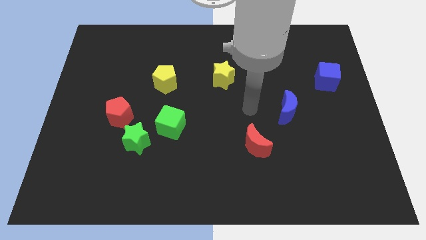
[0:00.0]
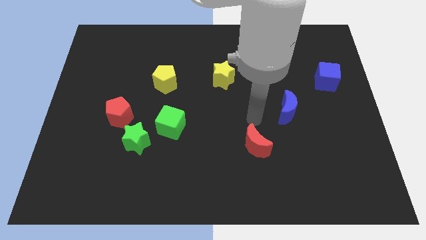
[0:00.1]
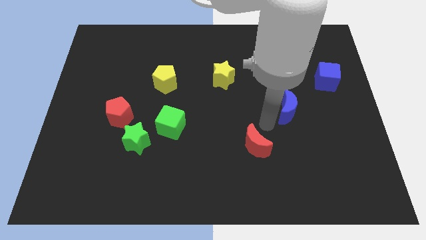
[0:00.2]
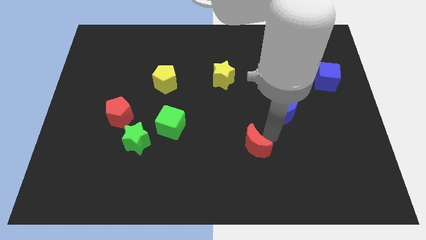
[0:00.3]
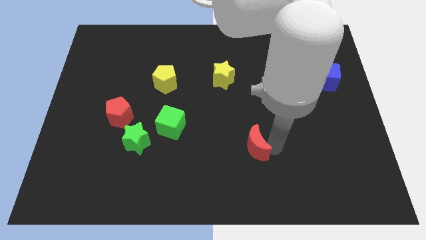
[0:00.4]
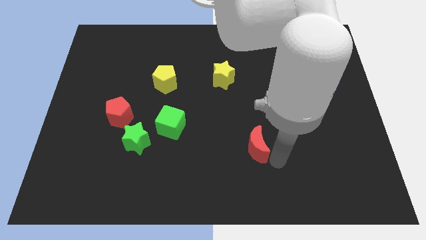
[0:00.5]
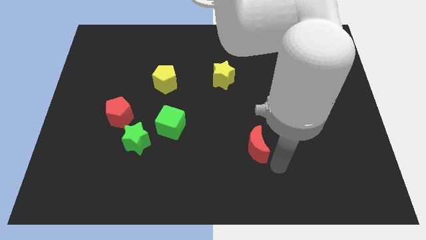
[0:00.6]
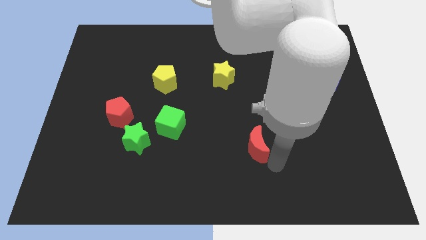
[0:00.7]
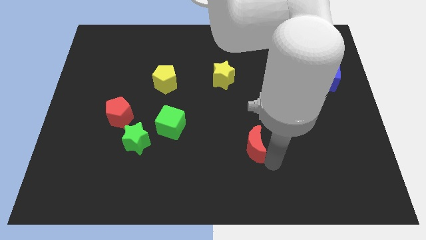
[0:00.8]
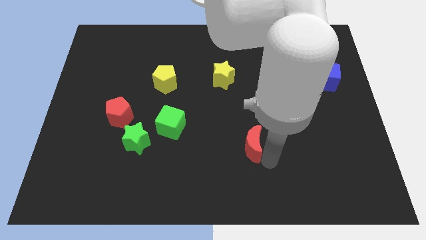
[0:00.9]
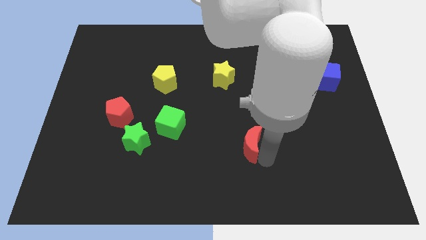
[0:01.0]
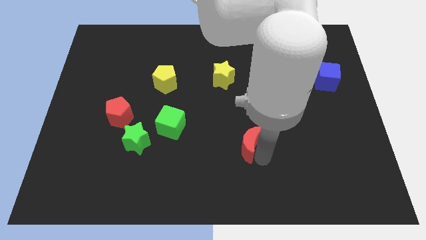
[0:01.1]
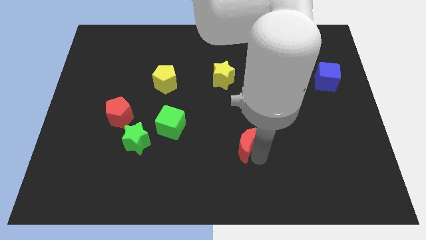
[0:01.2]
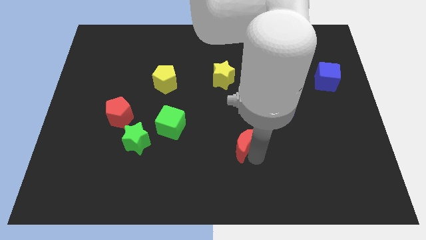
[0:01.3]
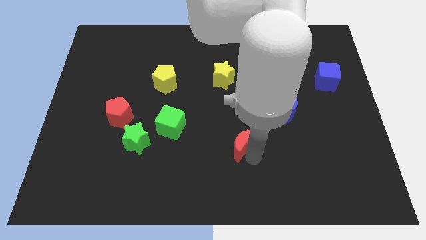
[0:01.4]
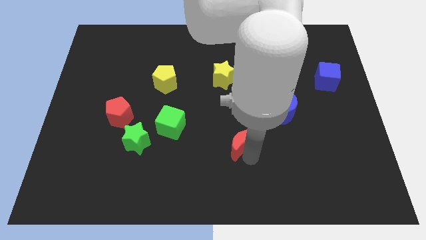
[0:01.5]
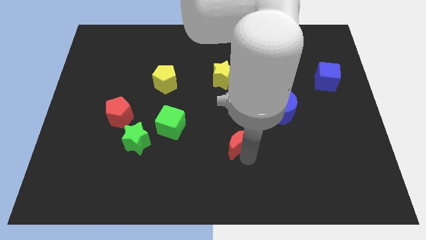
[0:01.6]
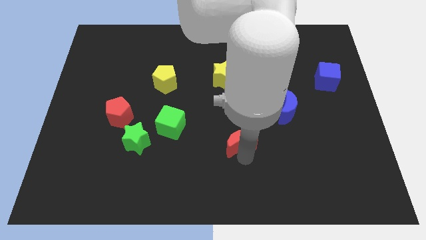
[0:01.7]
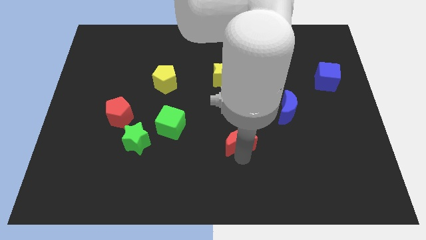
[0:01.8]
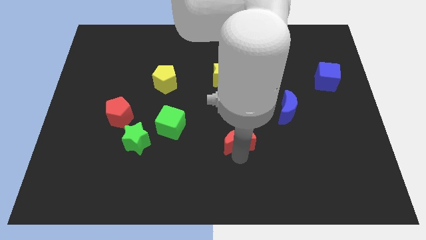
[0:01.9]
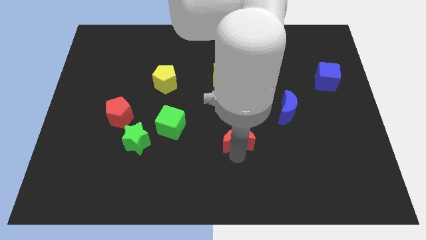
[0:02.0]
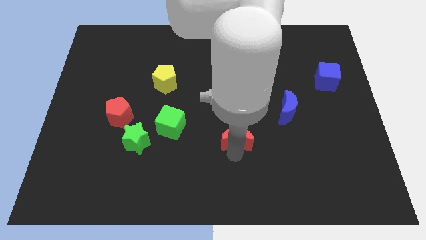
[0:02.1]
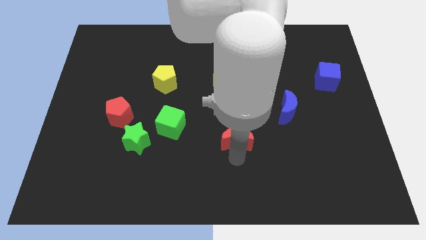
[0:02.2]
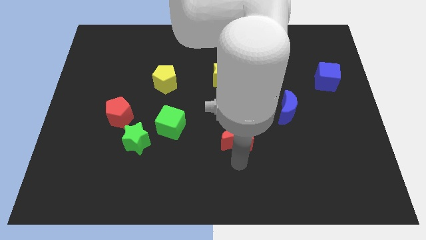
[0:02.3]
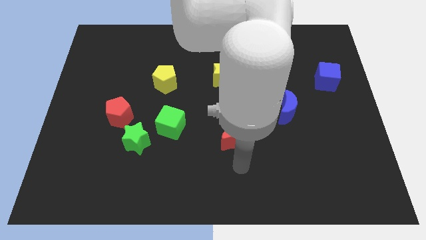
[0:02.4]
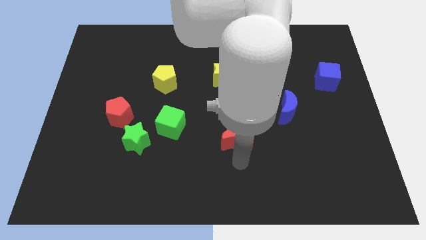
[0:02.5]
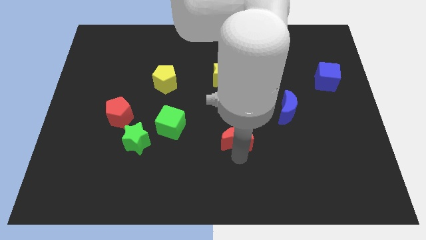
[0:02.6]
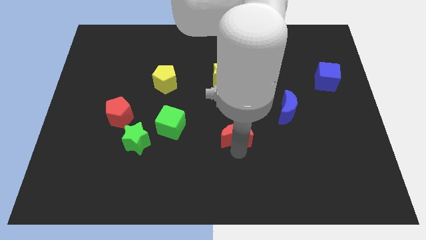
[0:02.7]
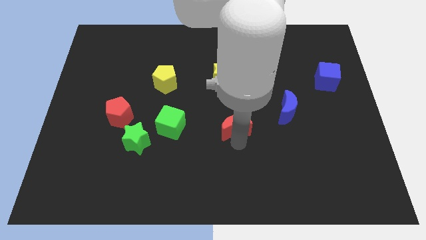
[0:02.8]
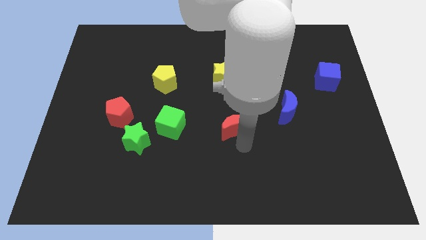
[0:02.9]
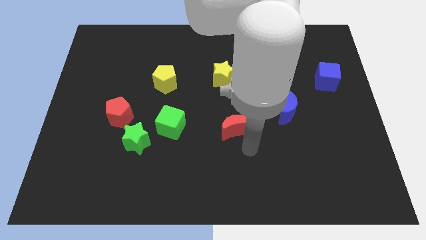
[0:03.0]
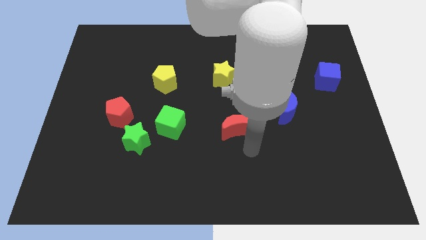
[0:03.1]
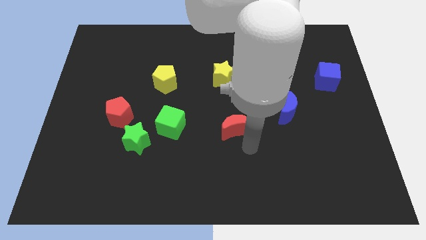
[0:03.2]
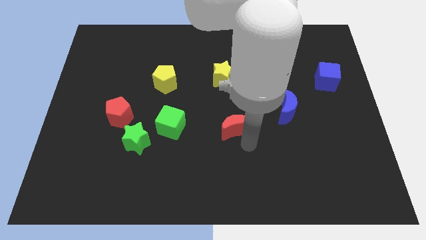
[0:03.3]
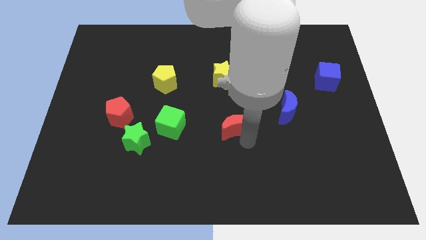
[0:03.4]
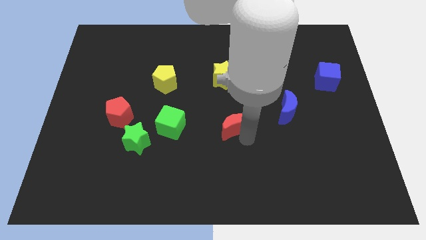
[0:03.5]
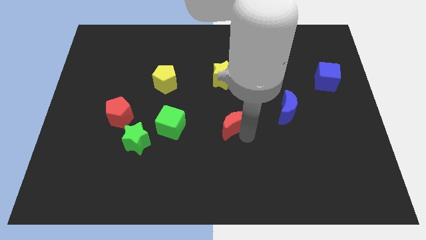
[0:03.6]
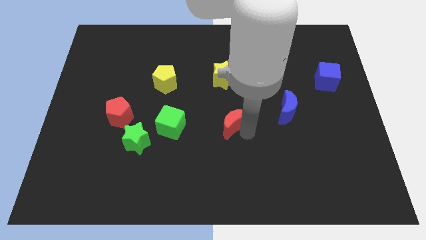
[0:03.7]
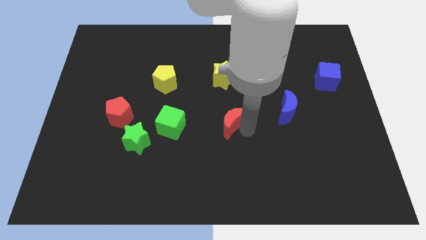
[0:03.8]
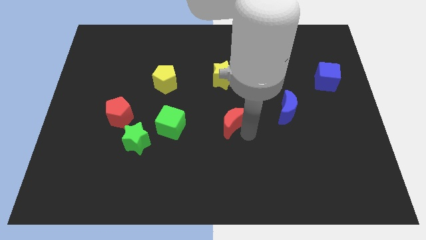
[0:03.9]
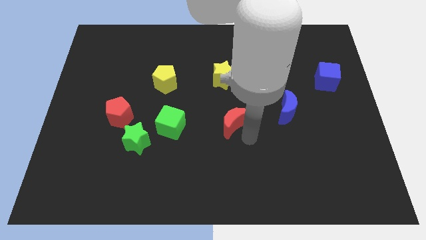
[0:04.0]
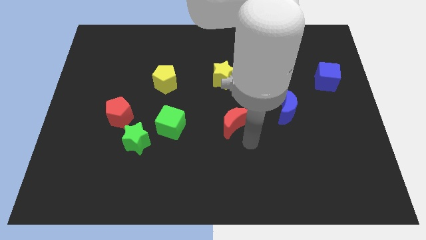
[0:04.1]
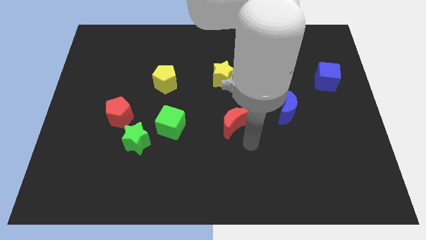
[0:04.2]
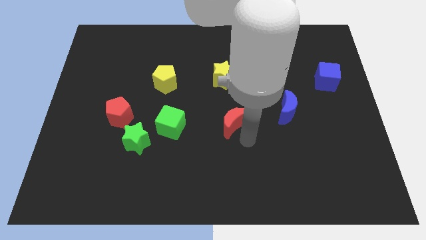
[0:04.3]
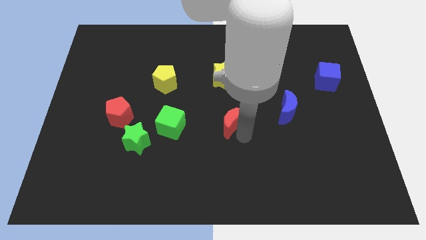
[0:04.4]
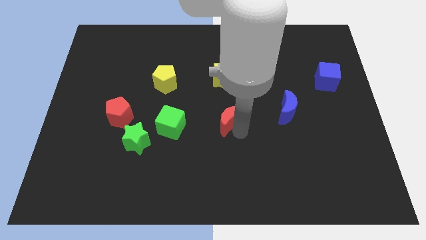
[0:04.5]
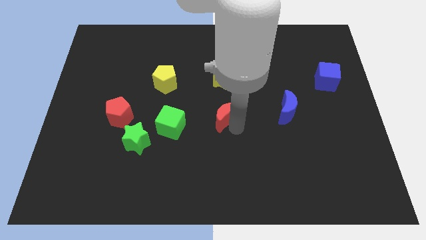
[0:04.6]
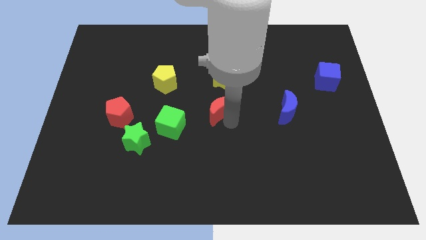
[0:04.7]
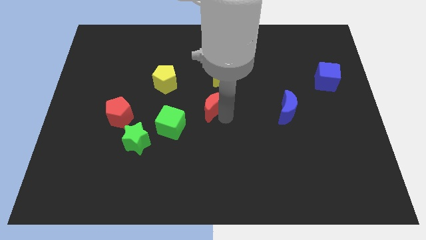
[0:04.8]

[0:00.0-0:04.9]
slide the red moon to the bottom left of the yellow star

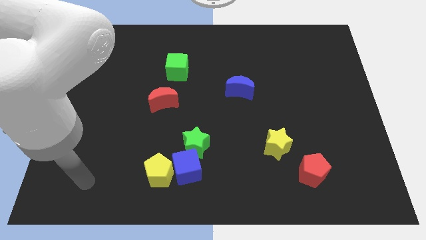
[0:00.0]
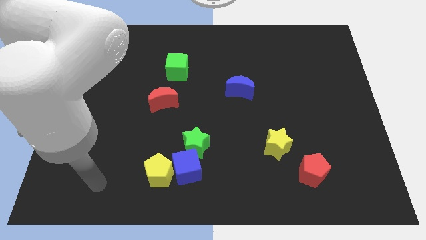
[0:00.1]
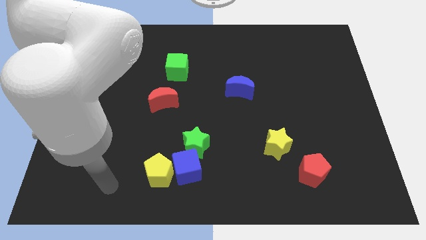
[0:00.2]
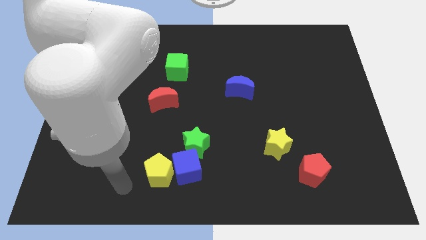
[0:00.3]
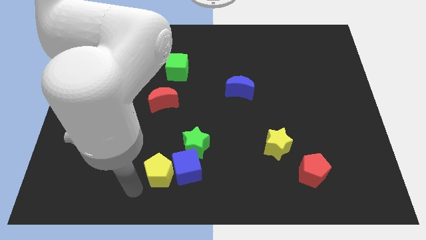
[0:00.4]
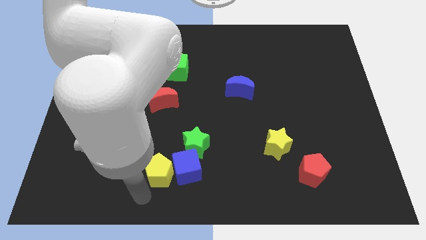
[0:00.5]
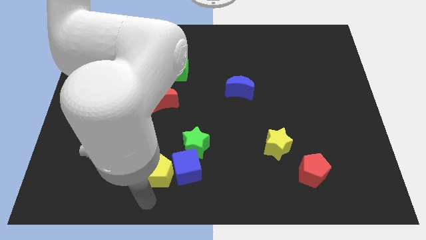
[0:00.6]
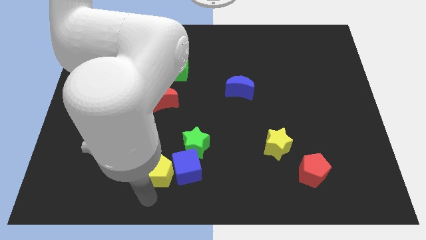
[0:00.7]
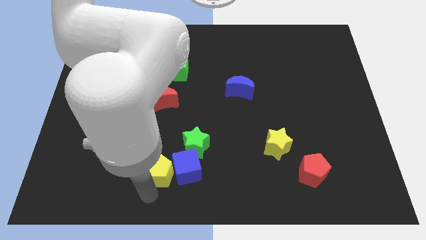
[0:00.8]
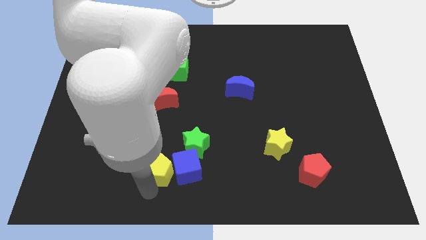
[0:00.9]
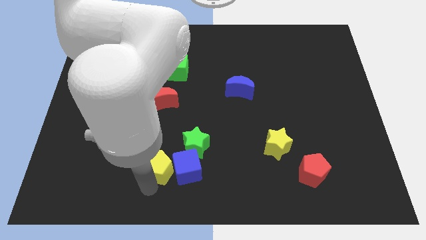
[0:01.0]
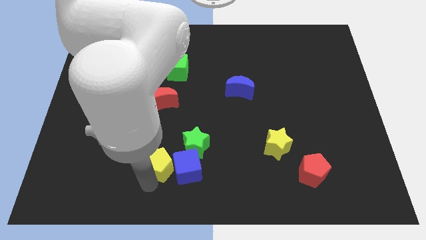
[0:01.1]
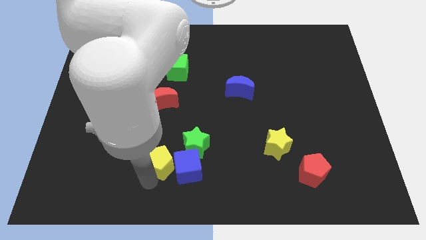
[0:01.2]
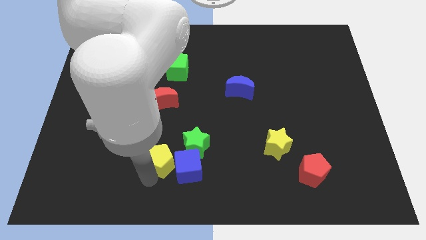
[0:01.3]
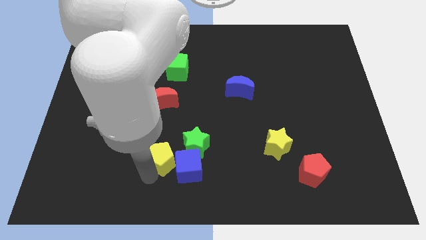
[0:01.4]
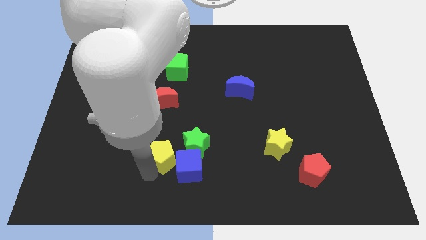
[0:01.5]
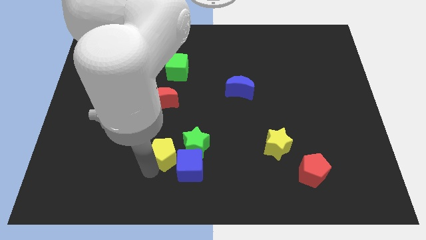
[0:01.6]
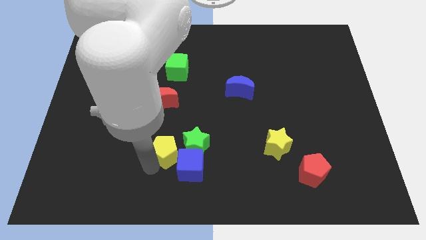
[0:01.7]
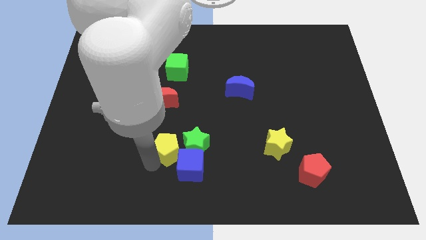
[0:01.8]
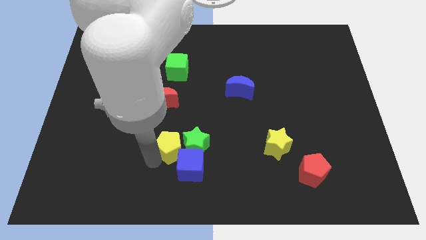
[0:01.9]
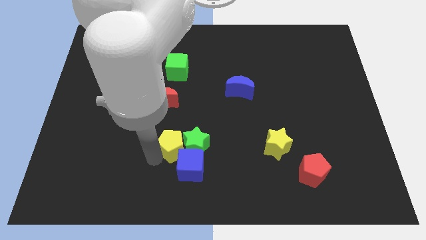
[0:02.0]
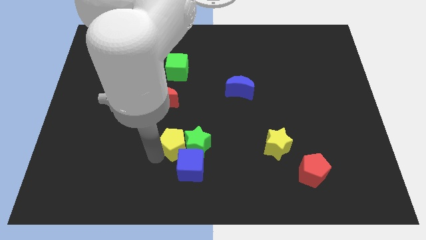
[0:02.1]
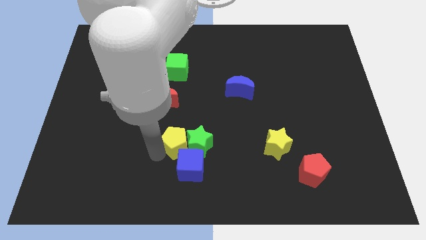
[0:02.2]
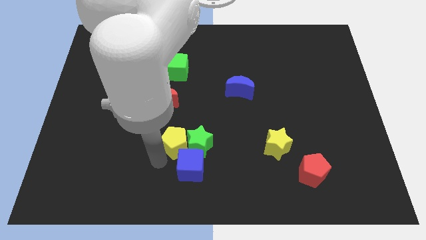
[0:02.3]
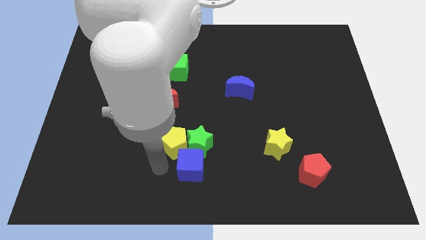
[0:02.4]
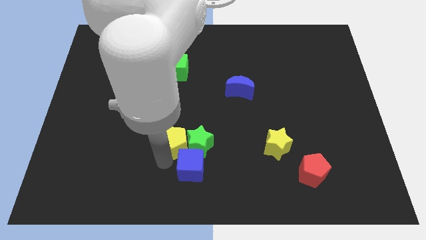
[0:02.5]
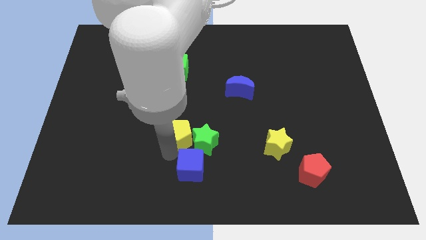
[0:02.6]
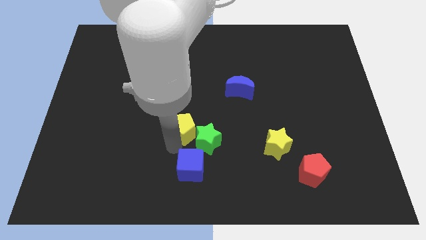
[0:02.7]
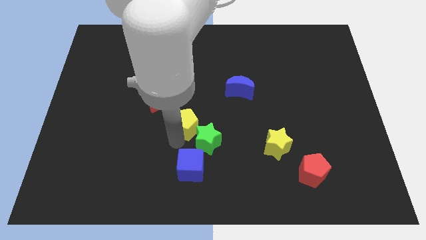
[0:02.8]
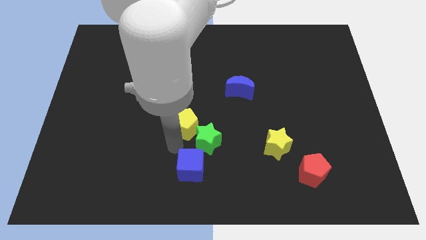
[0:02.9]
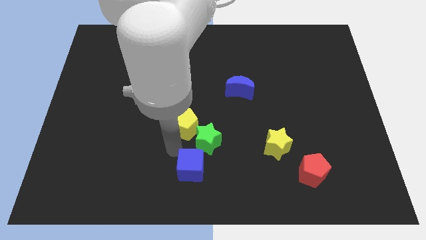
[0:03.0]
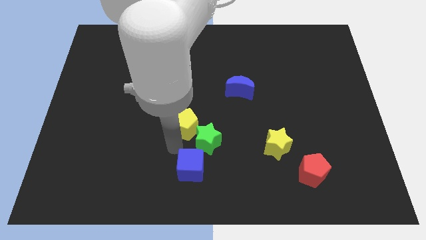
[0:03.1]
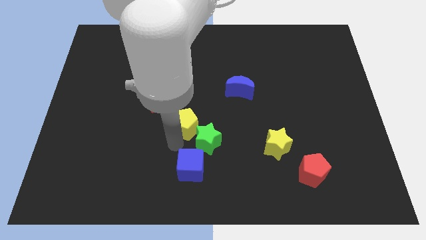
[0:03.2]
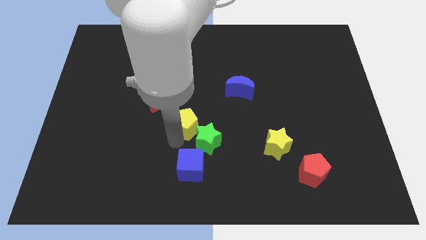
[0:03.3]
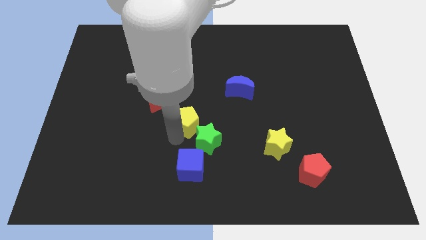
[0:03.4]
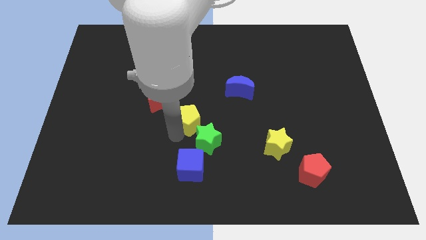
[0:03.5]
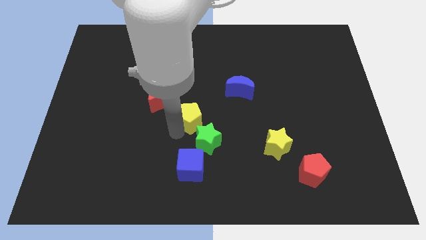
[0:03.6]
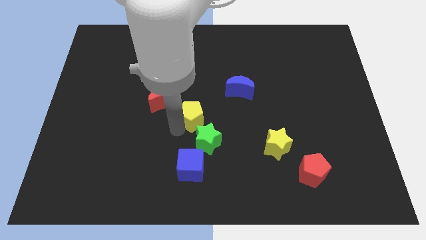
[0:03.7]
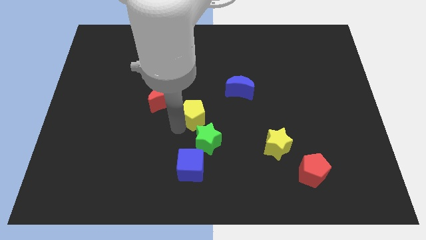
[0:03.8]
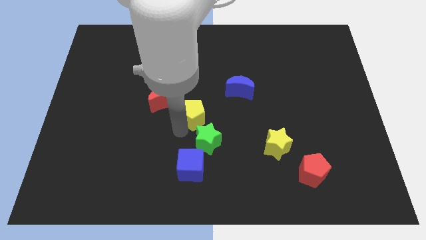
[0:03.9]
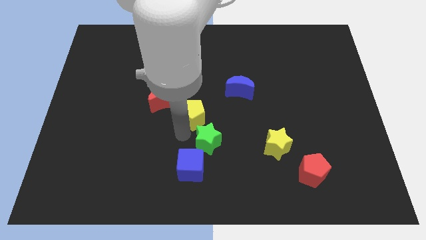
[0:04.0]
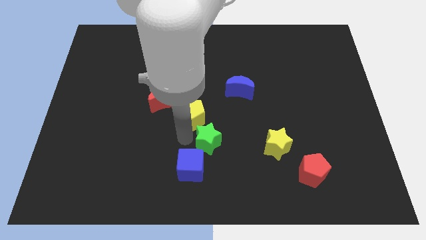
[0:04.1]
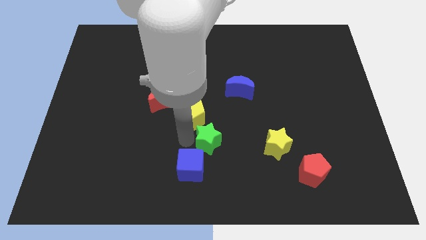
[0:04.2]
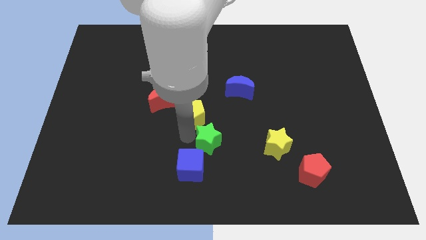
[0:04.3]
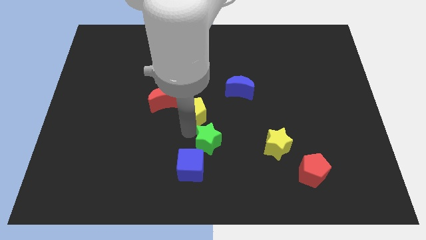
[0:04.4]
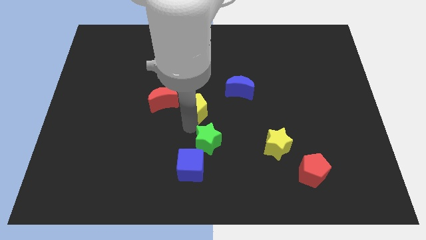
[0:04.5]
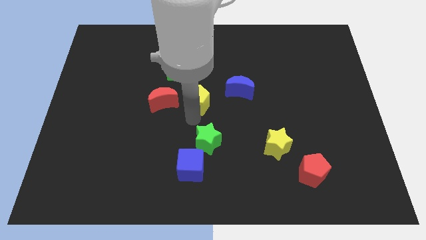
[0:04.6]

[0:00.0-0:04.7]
push the yellow pentagon to the bottom right of the green cube
